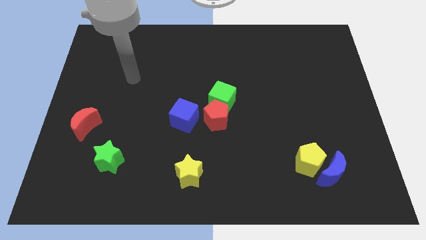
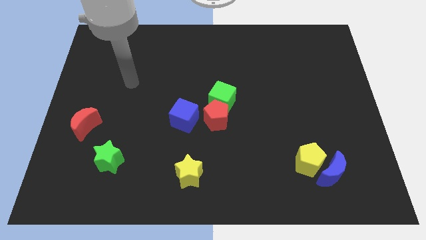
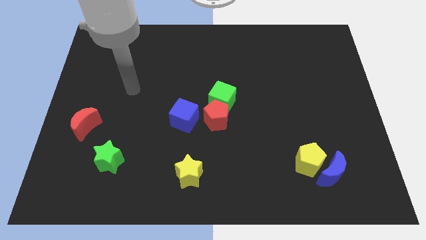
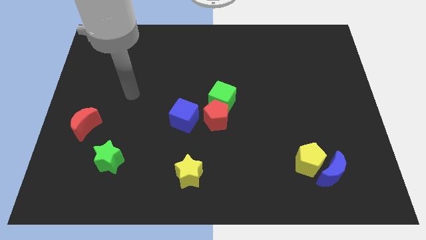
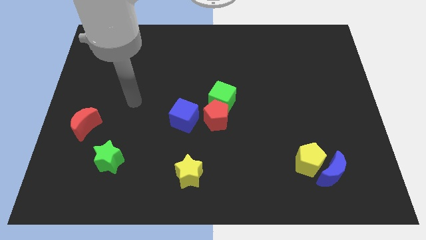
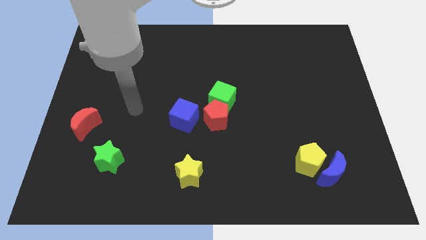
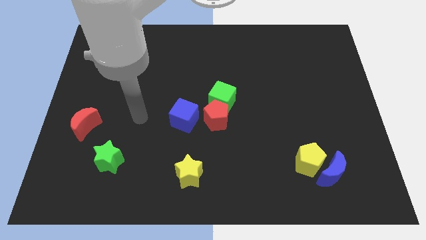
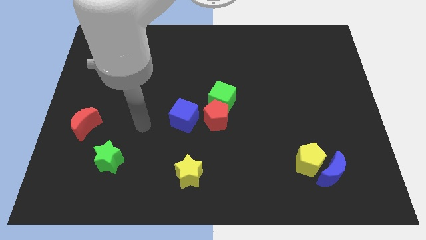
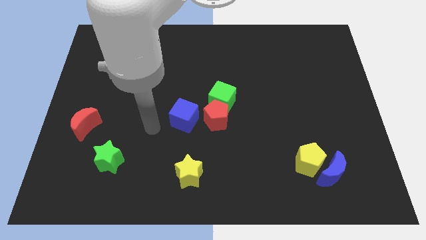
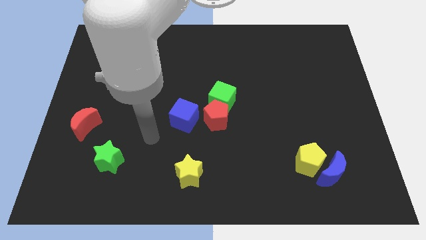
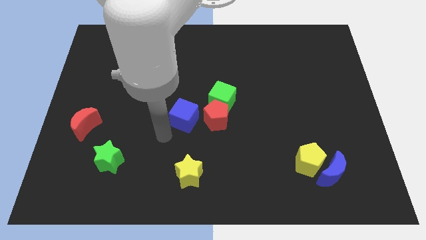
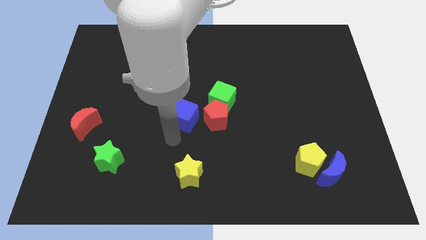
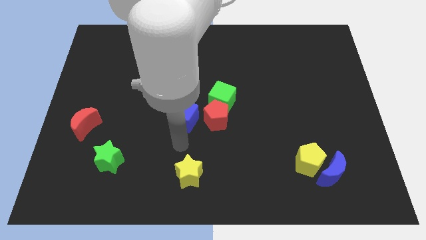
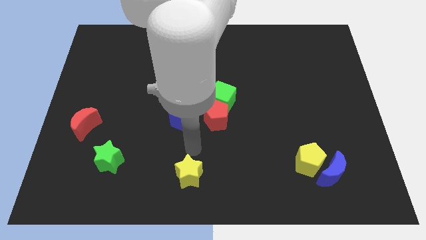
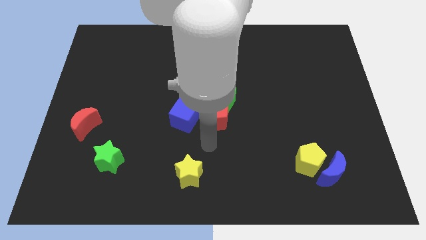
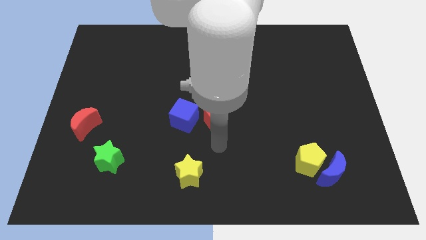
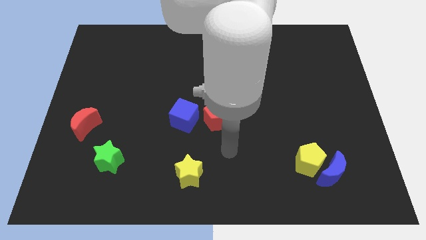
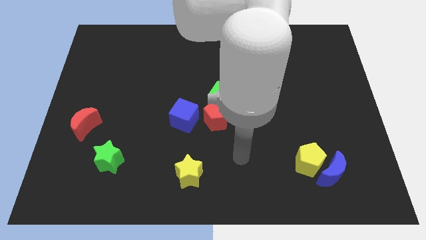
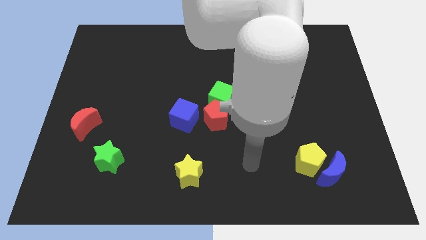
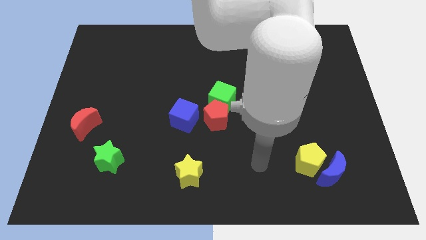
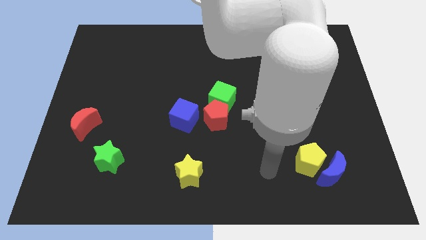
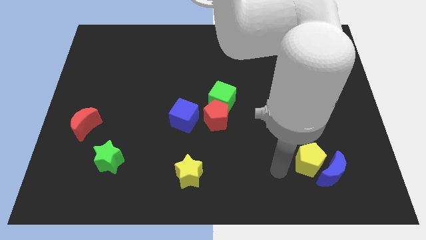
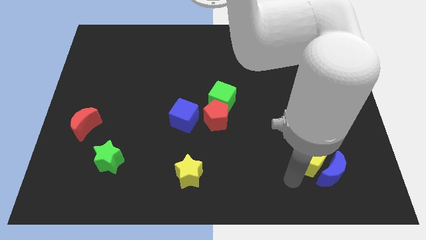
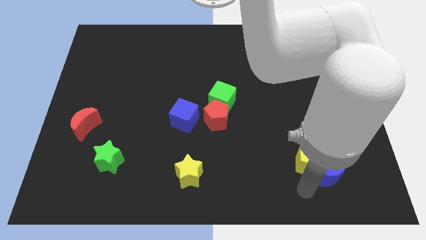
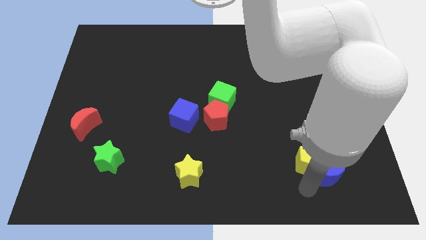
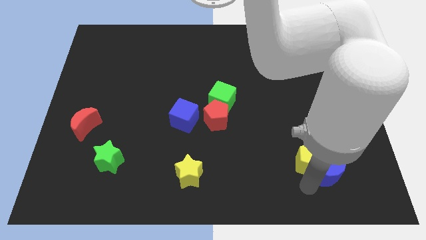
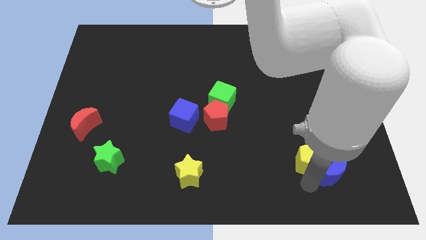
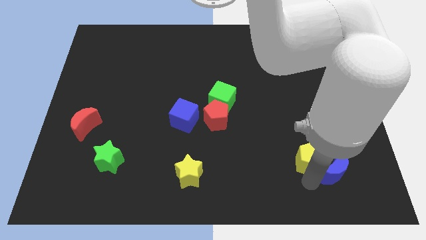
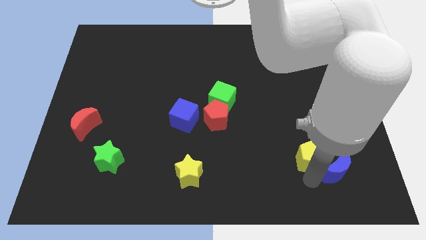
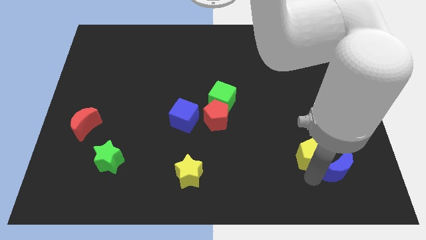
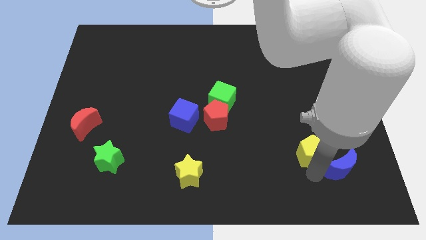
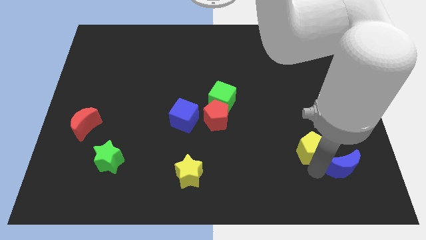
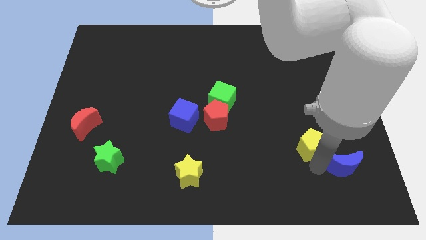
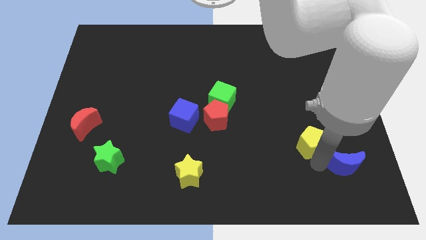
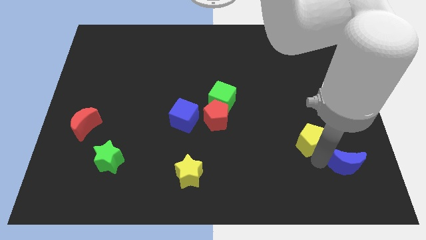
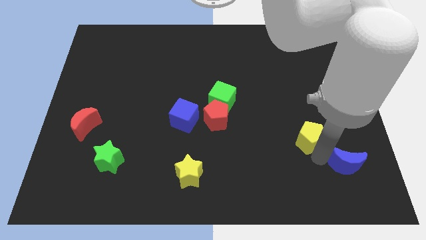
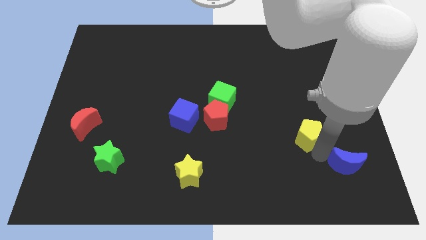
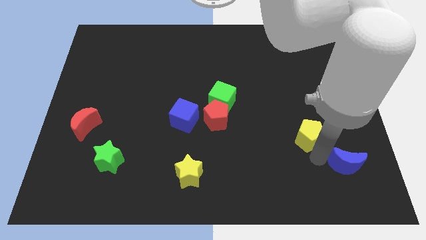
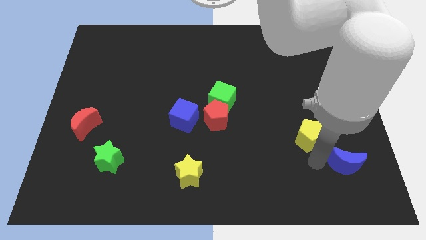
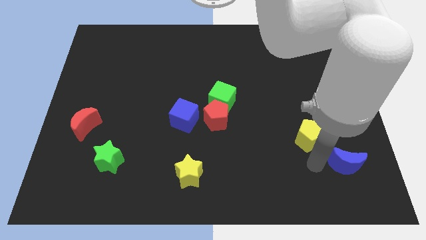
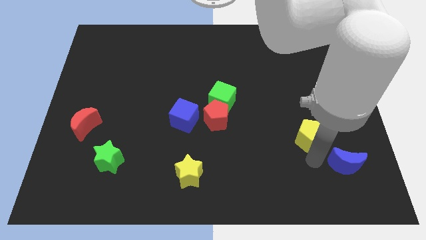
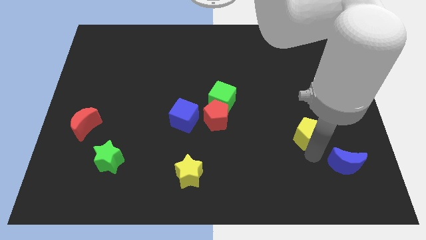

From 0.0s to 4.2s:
move the yellow pentagon upwards a bit

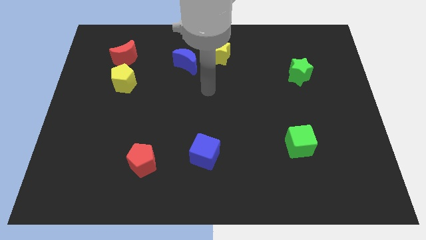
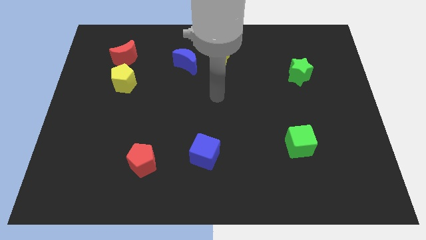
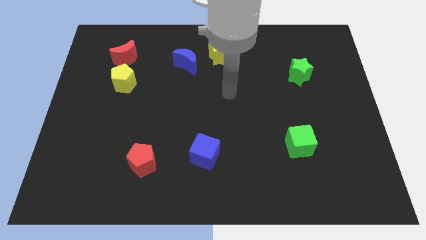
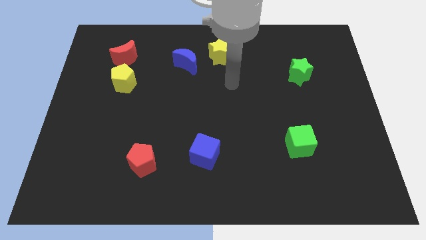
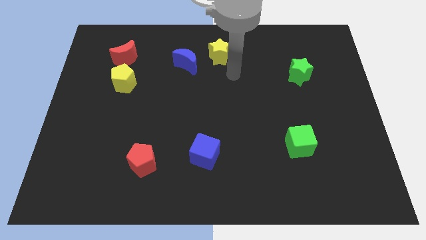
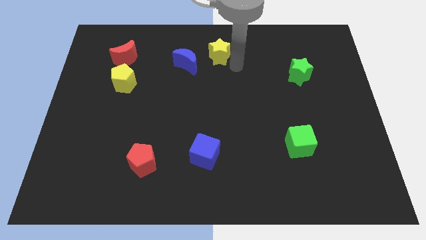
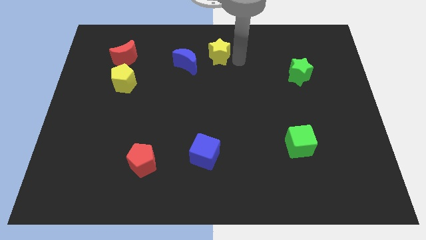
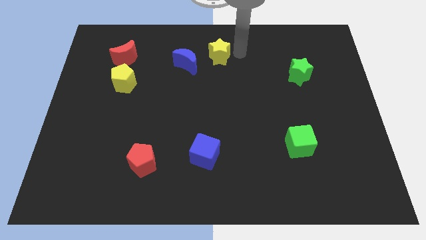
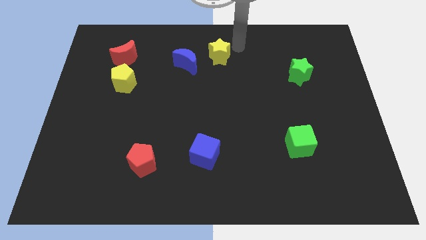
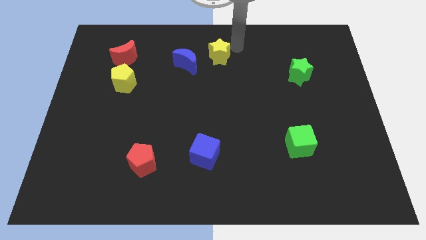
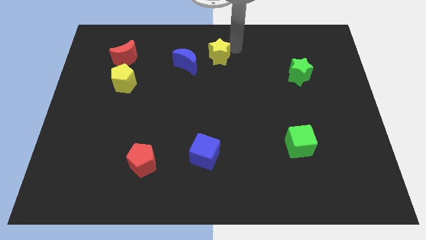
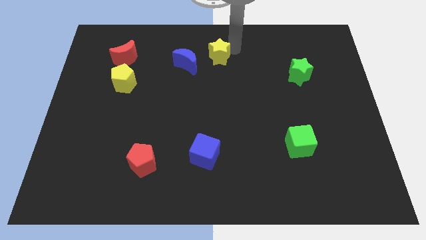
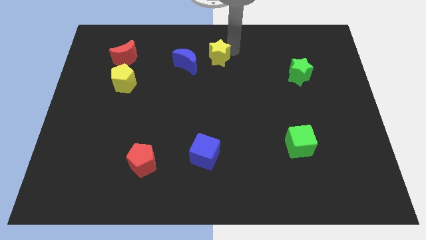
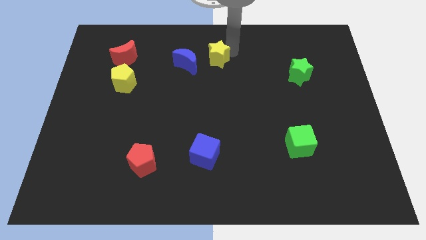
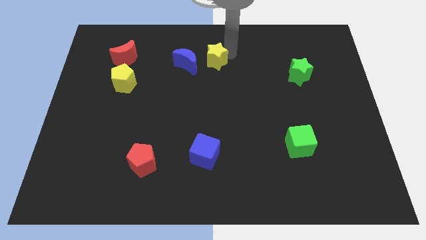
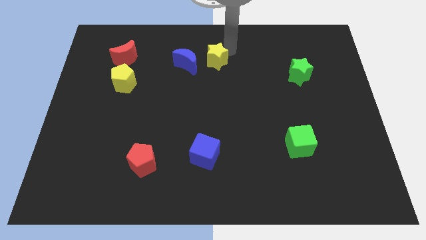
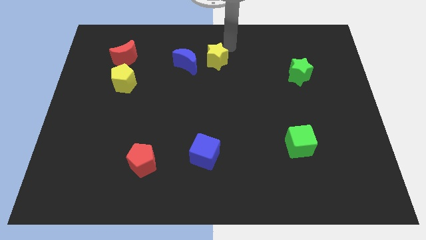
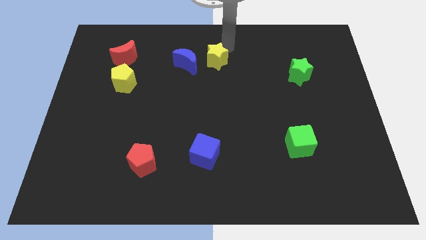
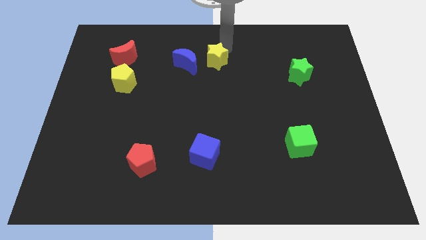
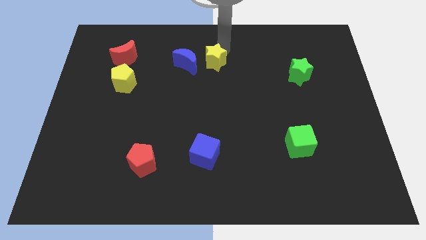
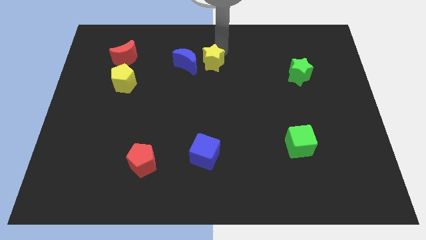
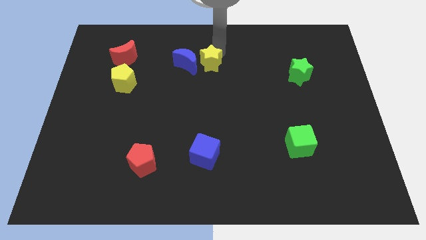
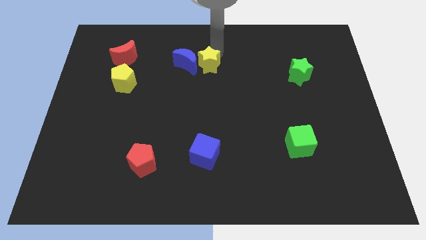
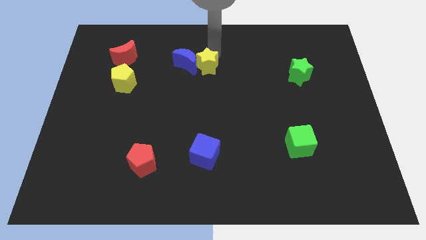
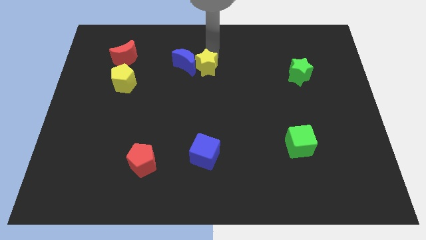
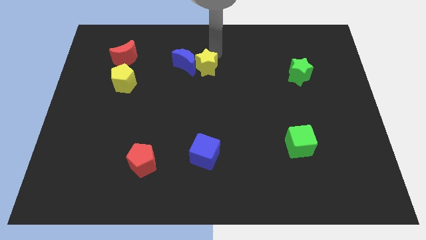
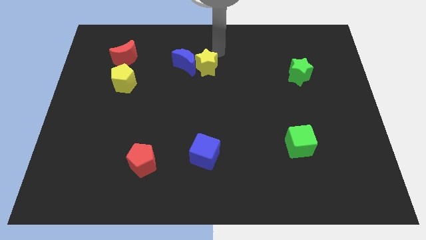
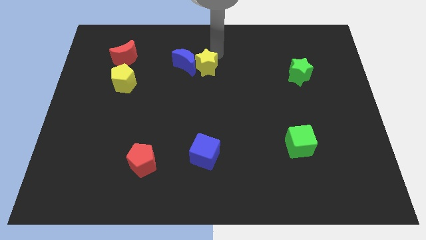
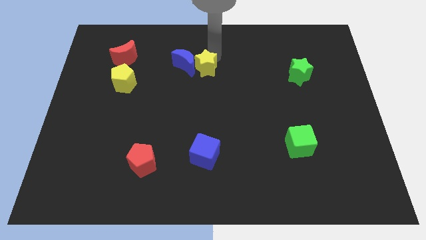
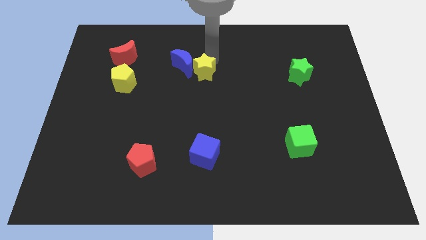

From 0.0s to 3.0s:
slightly slide the yellow star diagonally down and to the left

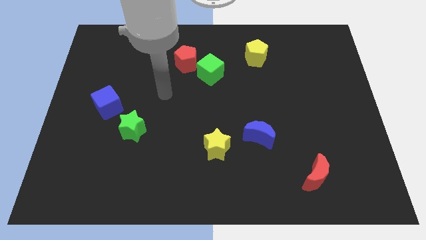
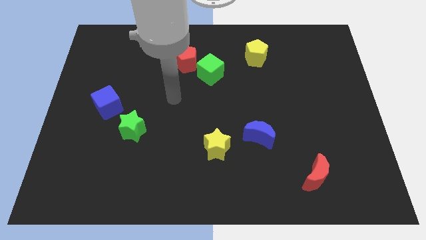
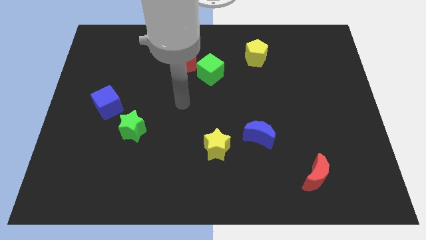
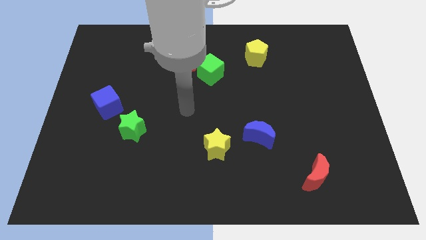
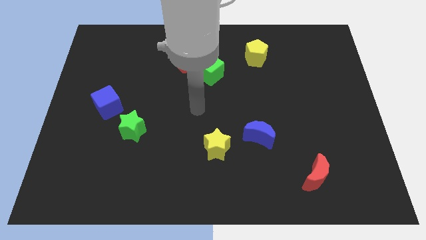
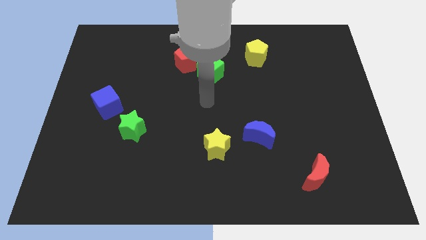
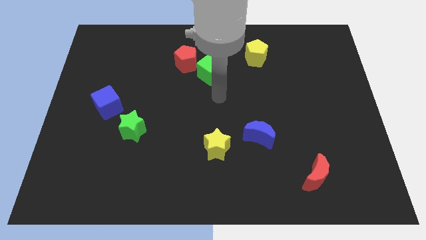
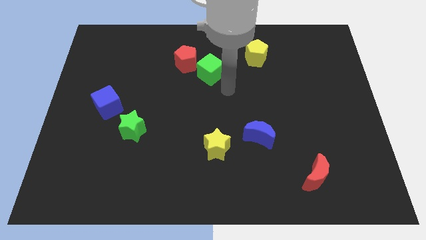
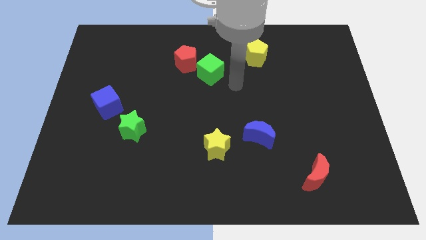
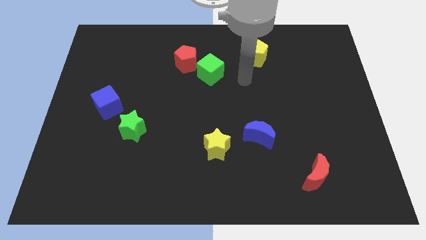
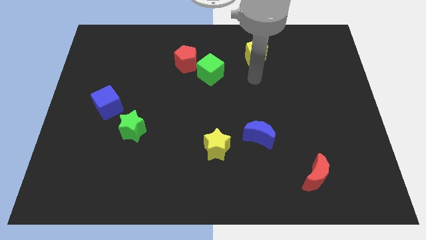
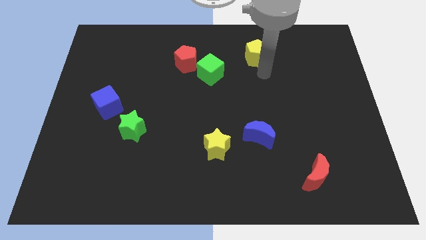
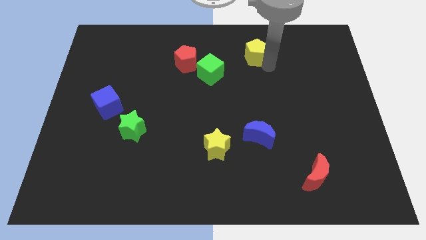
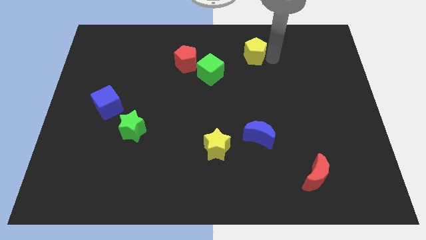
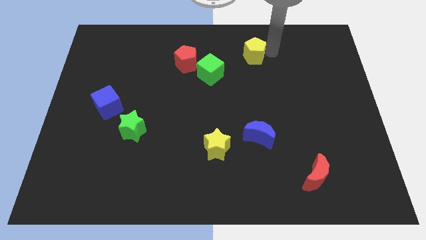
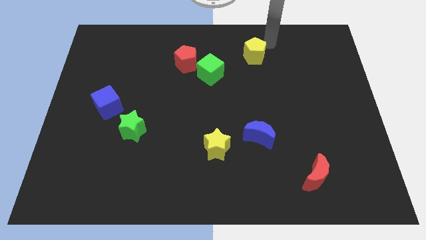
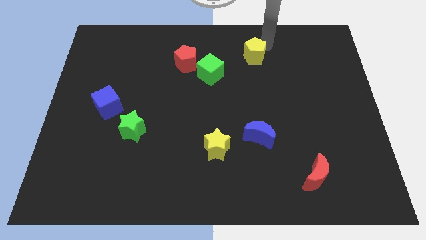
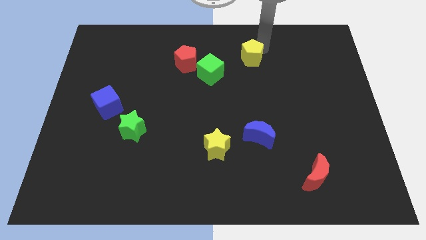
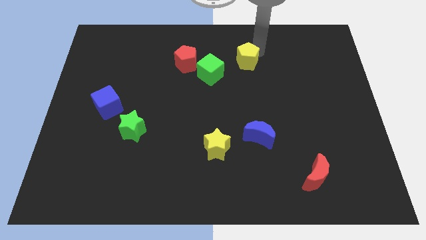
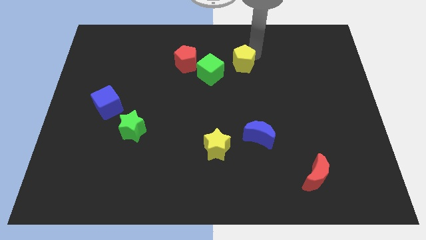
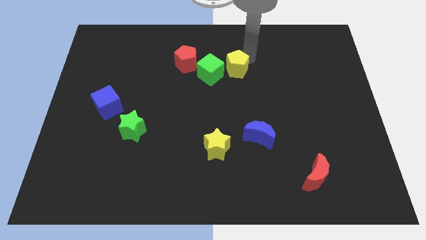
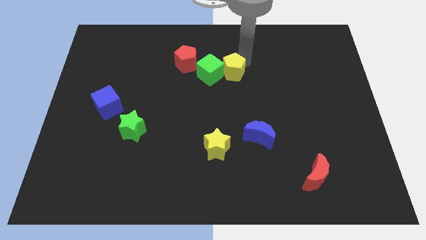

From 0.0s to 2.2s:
push the yellow pentagon slightly downwards and left diagonally
